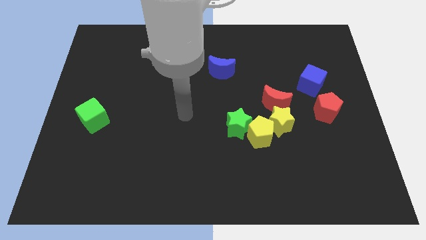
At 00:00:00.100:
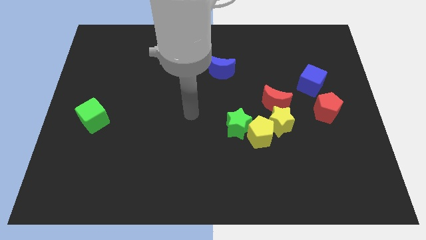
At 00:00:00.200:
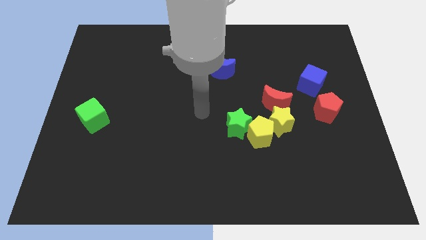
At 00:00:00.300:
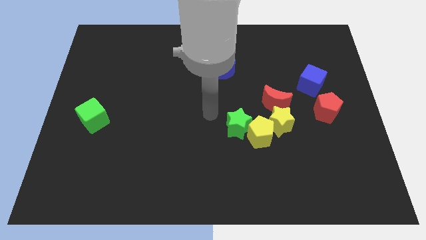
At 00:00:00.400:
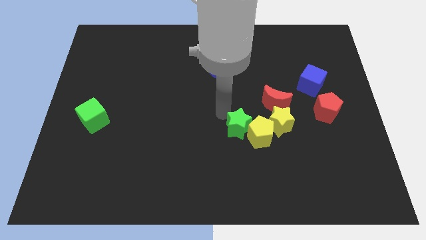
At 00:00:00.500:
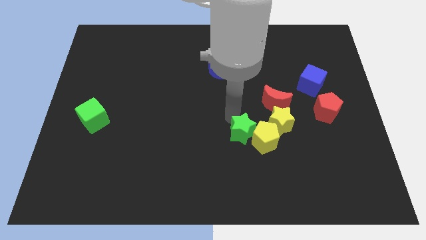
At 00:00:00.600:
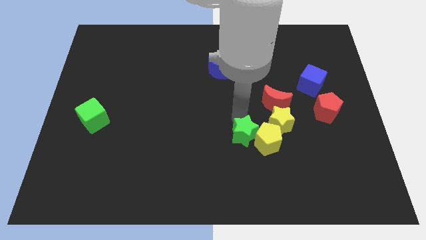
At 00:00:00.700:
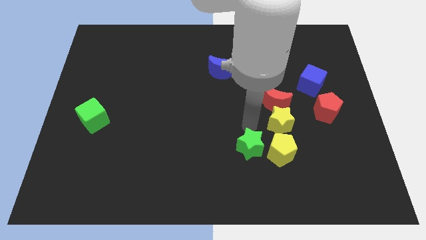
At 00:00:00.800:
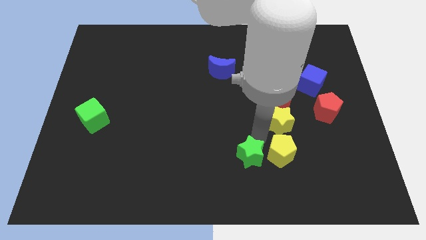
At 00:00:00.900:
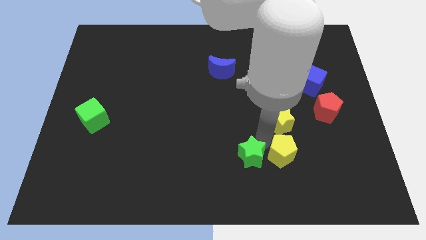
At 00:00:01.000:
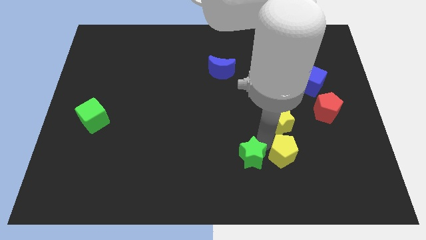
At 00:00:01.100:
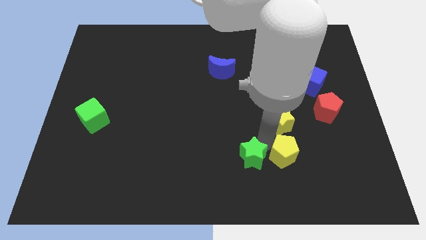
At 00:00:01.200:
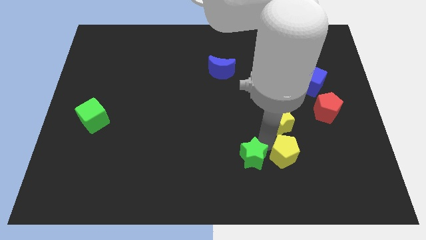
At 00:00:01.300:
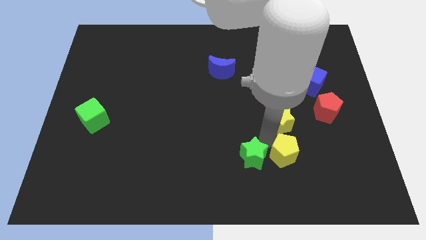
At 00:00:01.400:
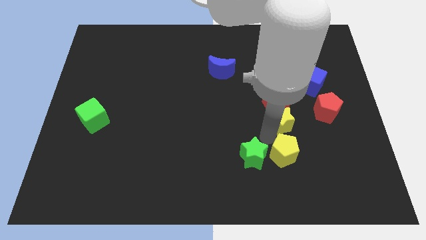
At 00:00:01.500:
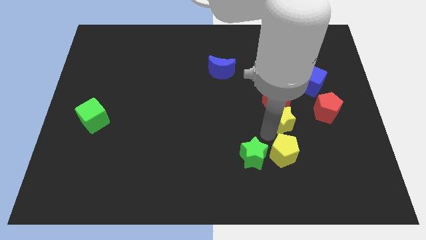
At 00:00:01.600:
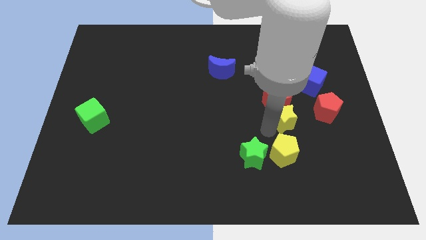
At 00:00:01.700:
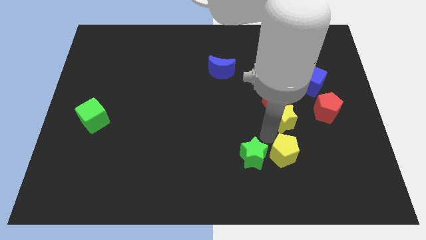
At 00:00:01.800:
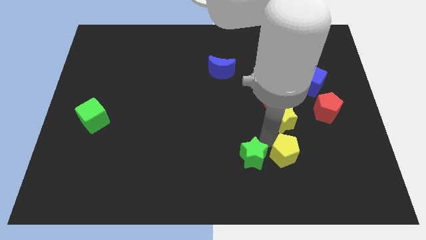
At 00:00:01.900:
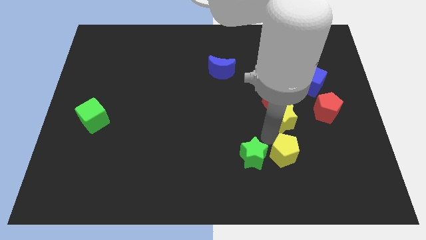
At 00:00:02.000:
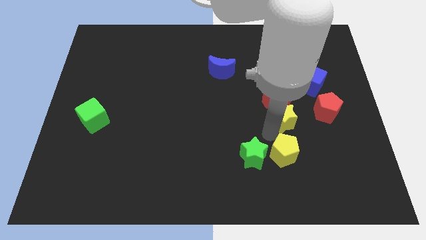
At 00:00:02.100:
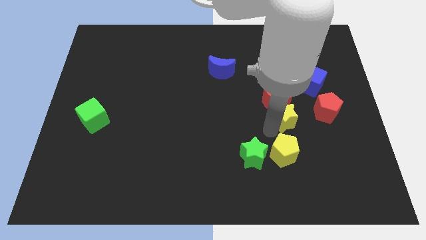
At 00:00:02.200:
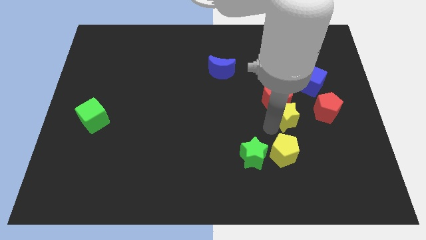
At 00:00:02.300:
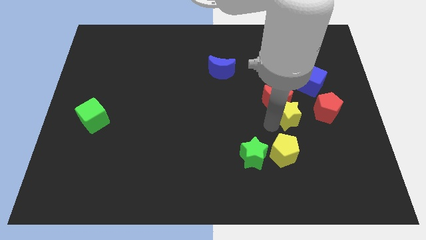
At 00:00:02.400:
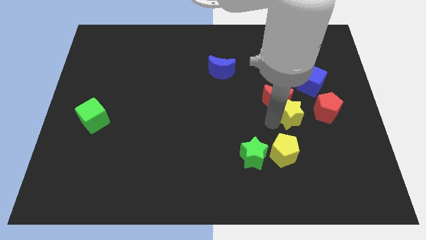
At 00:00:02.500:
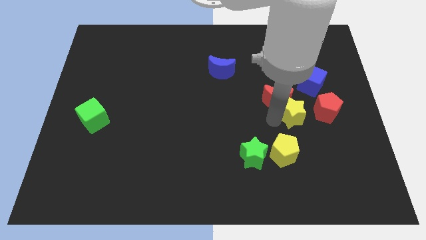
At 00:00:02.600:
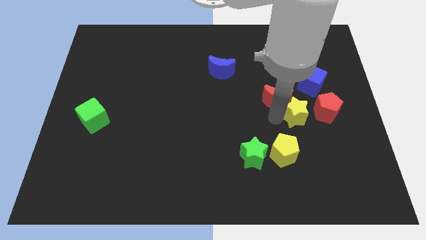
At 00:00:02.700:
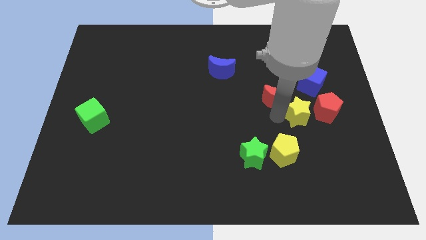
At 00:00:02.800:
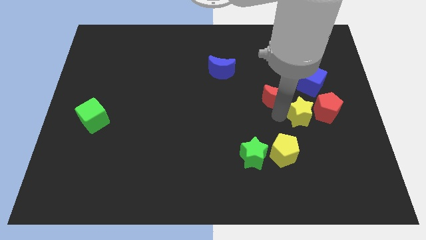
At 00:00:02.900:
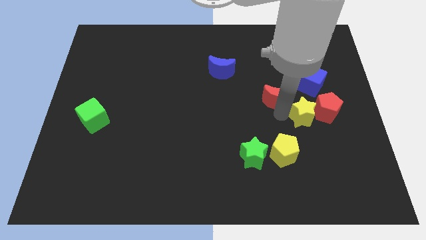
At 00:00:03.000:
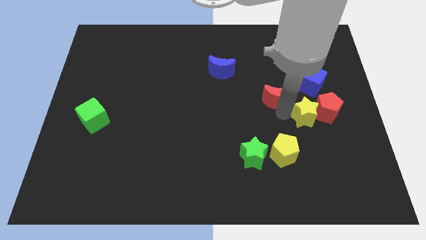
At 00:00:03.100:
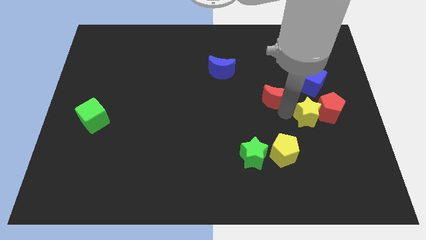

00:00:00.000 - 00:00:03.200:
move the yellow star away from the yellow pentagon, red moon, and green star

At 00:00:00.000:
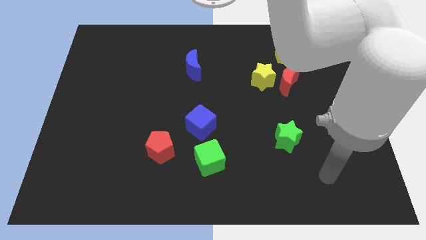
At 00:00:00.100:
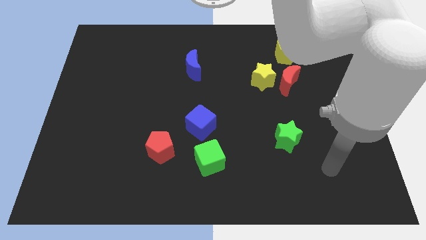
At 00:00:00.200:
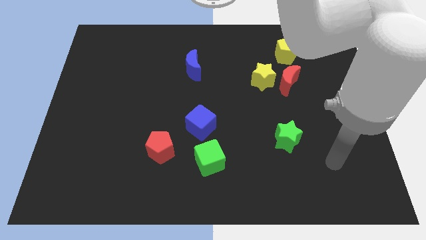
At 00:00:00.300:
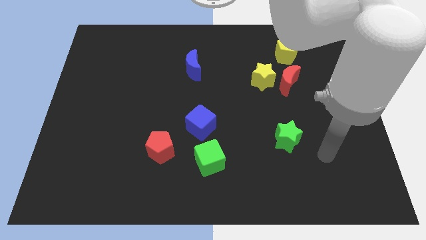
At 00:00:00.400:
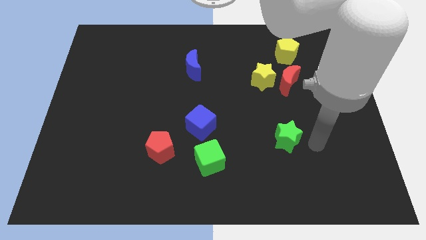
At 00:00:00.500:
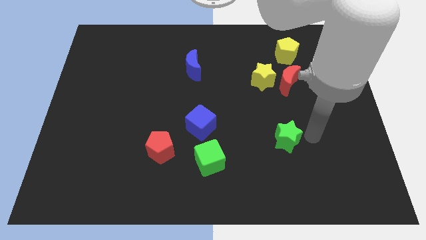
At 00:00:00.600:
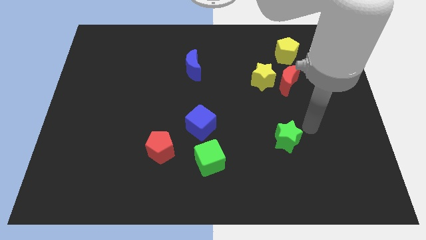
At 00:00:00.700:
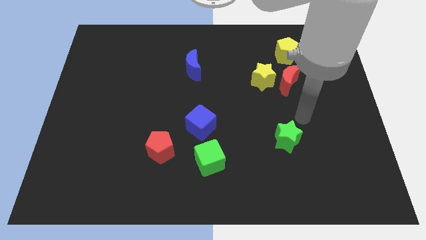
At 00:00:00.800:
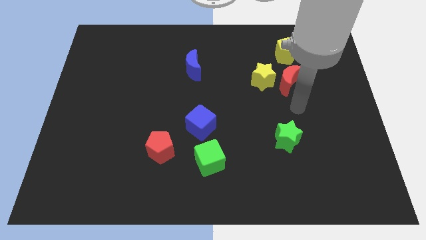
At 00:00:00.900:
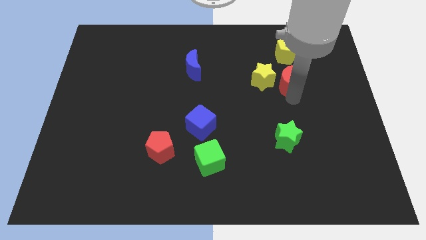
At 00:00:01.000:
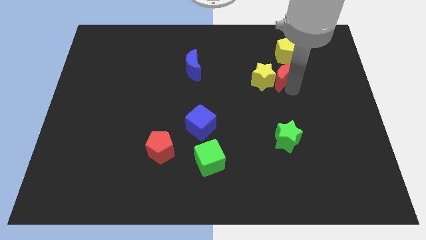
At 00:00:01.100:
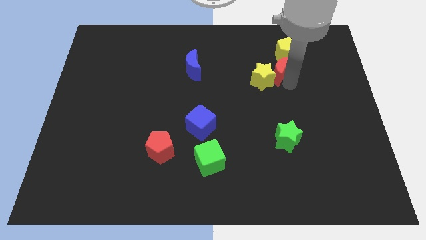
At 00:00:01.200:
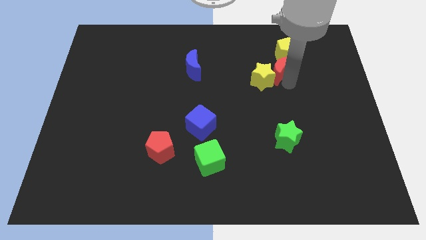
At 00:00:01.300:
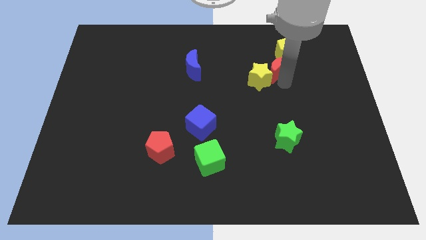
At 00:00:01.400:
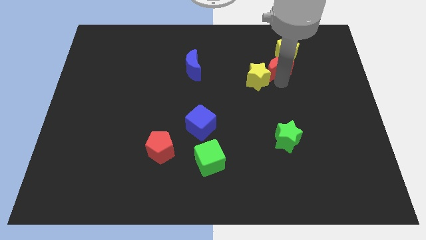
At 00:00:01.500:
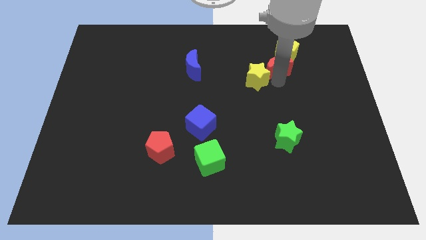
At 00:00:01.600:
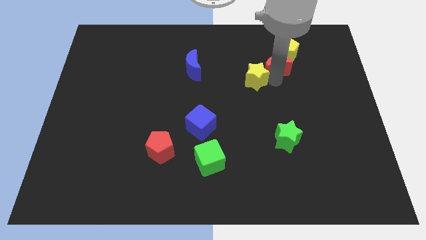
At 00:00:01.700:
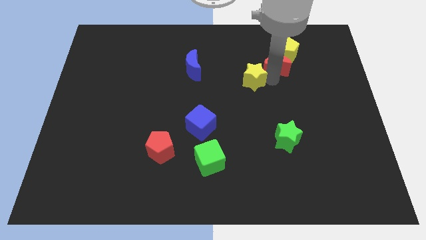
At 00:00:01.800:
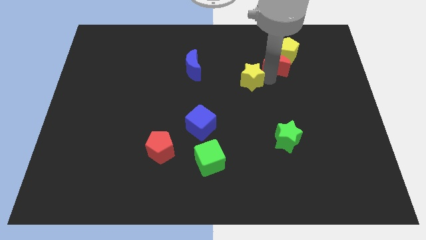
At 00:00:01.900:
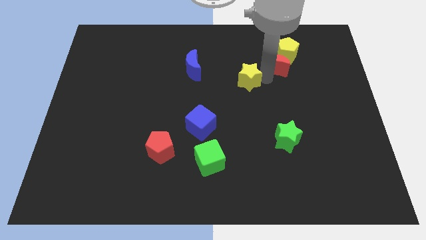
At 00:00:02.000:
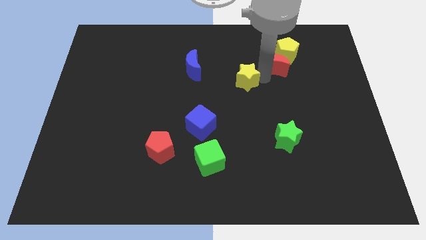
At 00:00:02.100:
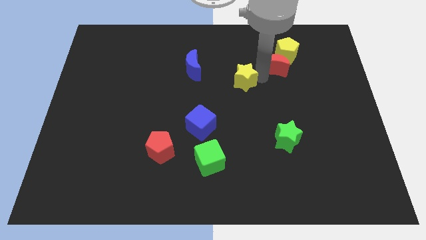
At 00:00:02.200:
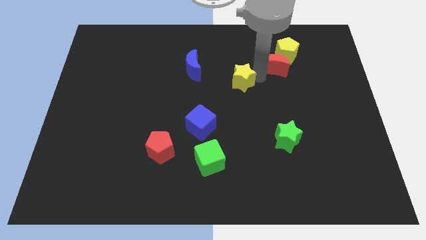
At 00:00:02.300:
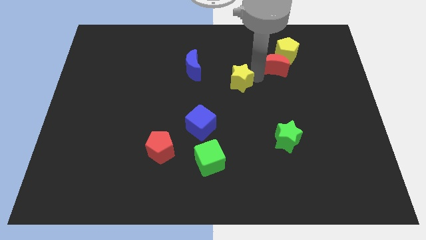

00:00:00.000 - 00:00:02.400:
move the yellow star away from the red moon

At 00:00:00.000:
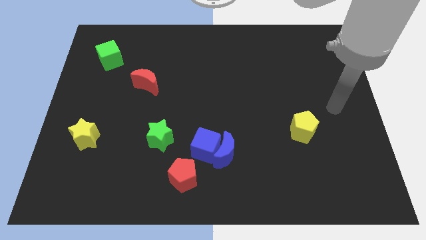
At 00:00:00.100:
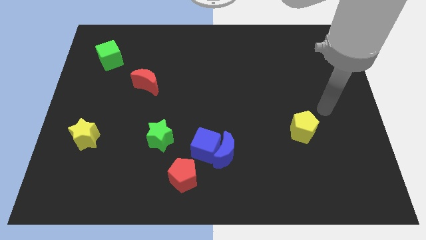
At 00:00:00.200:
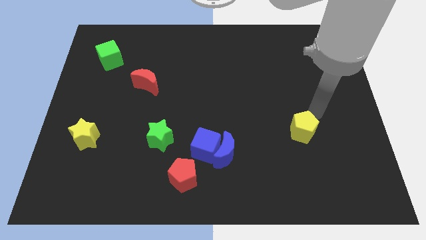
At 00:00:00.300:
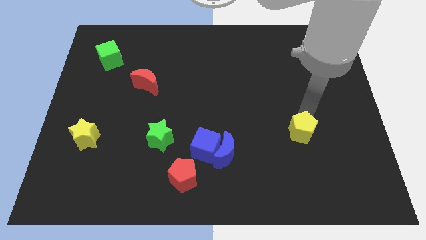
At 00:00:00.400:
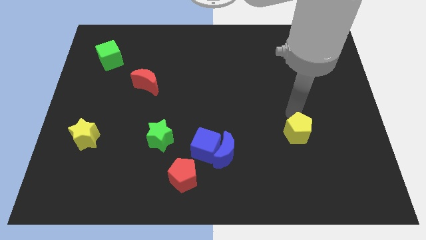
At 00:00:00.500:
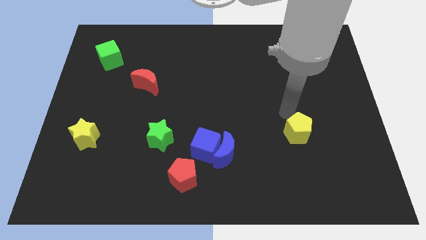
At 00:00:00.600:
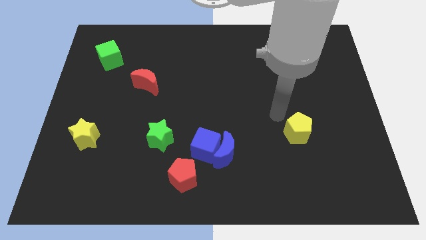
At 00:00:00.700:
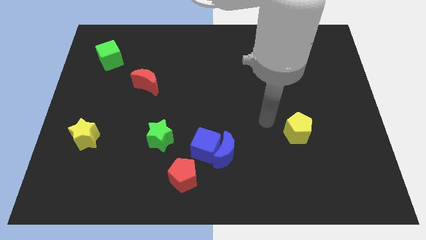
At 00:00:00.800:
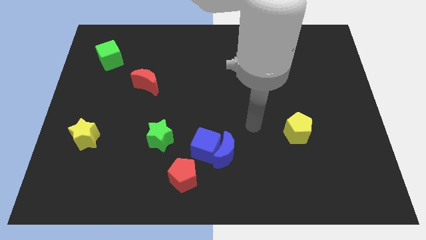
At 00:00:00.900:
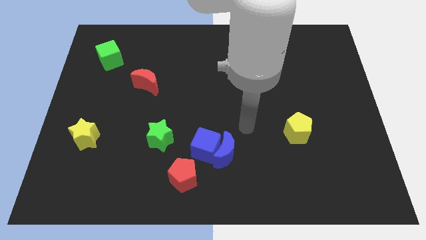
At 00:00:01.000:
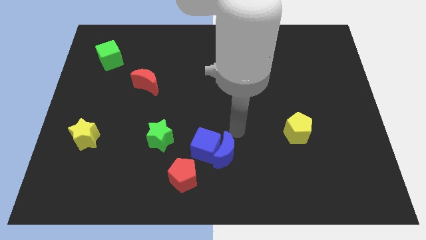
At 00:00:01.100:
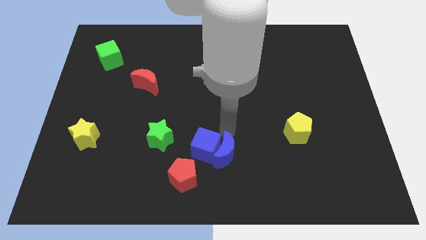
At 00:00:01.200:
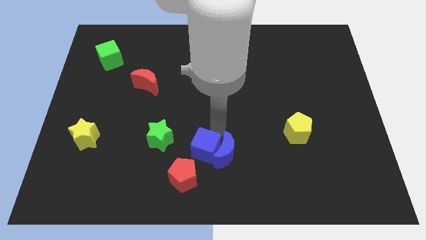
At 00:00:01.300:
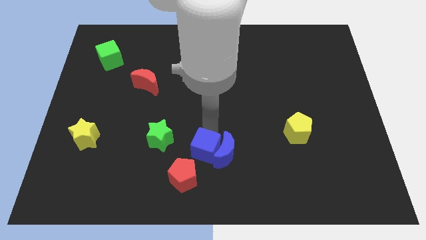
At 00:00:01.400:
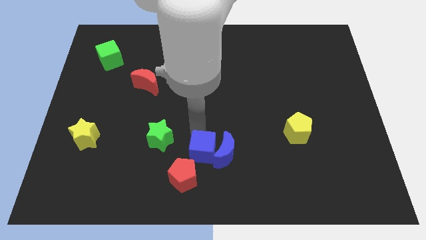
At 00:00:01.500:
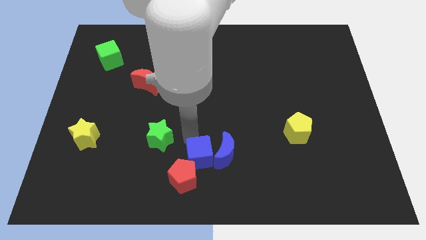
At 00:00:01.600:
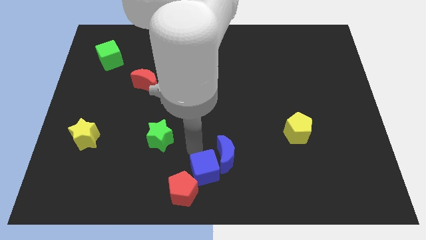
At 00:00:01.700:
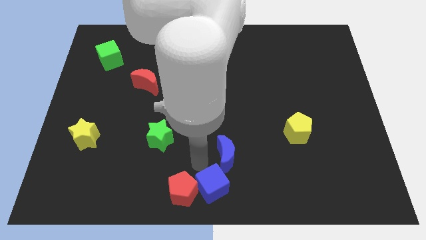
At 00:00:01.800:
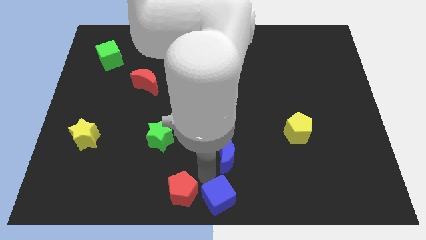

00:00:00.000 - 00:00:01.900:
pull the blue moon apart from the blue cube and red pentagon

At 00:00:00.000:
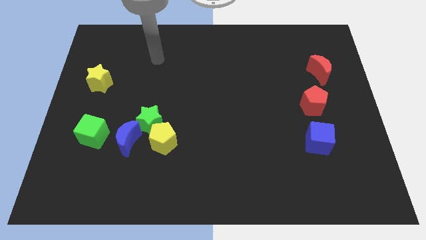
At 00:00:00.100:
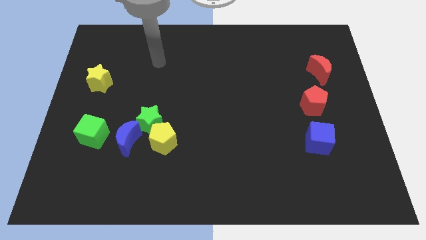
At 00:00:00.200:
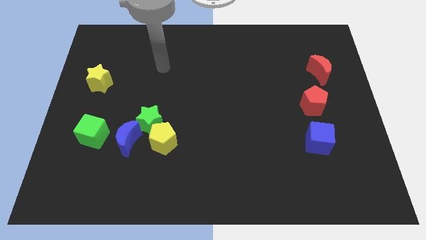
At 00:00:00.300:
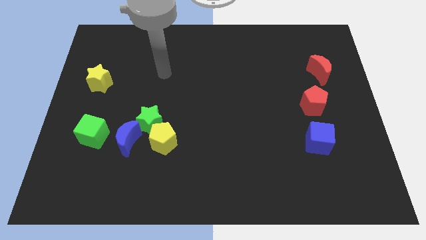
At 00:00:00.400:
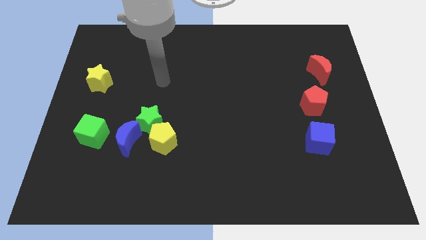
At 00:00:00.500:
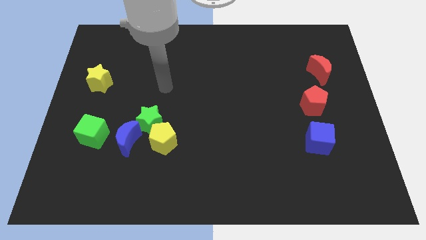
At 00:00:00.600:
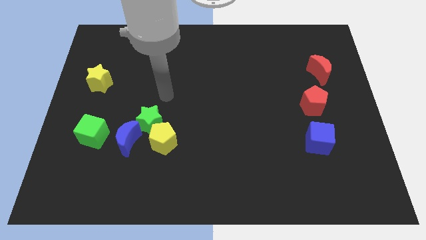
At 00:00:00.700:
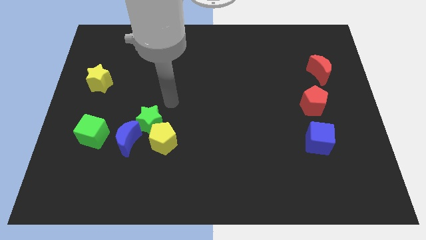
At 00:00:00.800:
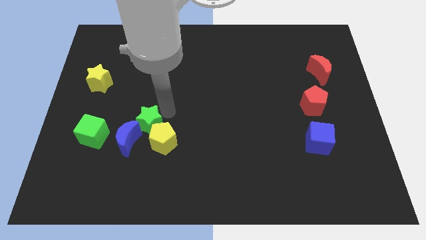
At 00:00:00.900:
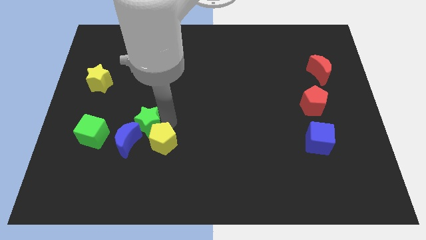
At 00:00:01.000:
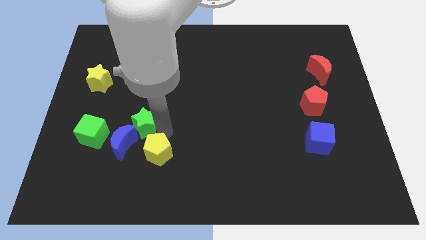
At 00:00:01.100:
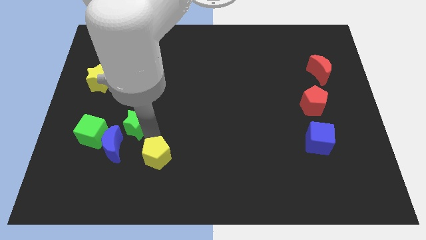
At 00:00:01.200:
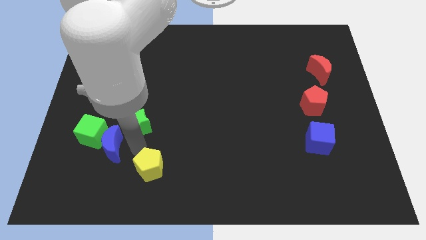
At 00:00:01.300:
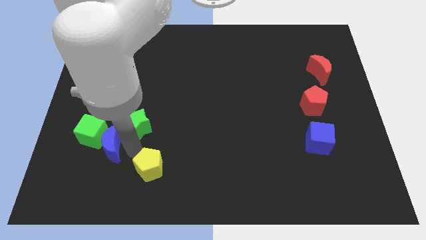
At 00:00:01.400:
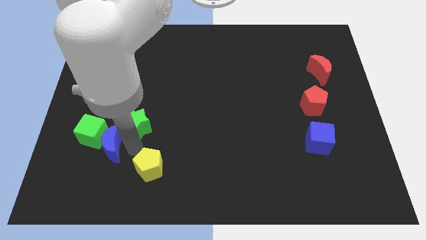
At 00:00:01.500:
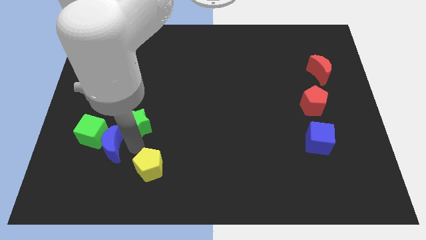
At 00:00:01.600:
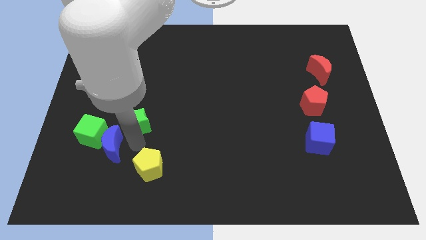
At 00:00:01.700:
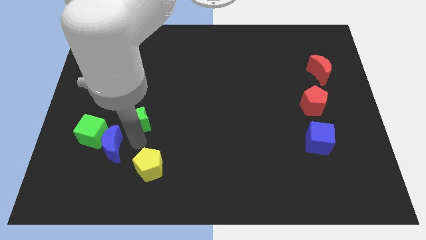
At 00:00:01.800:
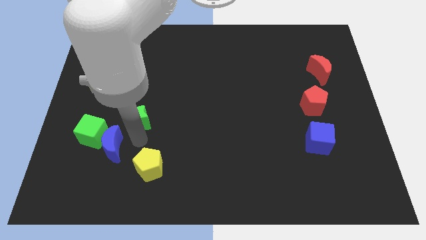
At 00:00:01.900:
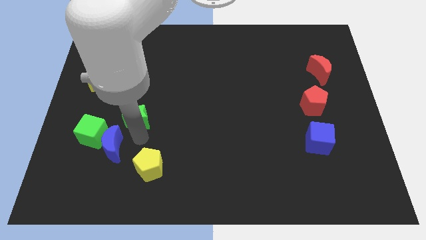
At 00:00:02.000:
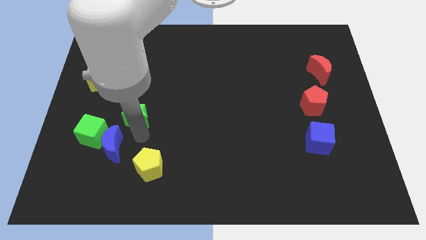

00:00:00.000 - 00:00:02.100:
move the green star away from the yellow pentagon and blue moon
